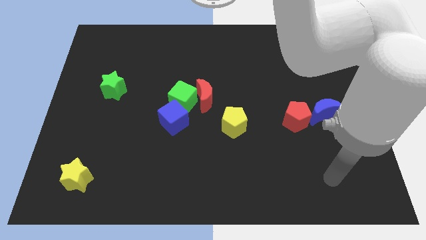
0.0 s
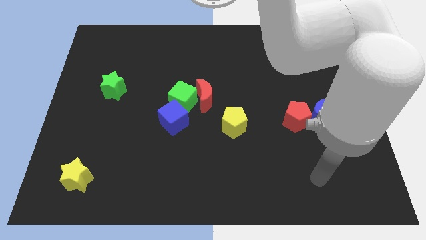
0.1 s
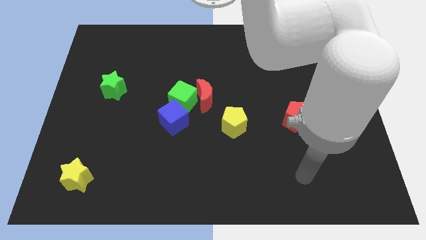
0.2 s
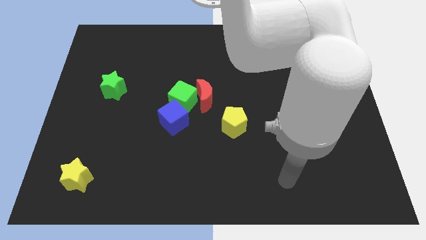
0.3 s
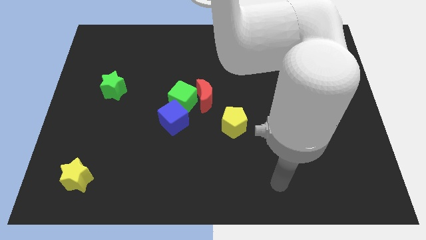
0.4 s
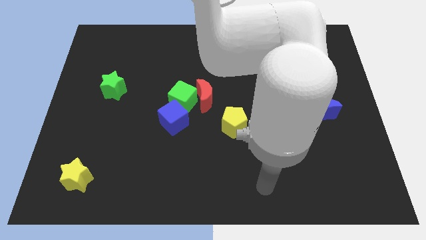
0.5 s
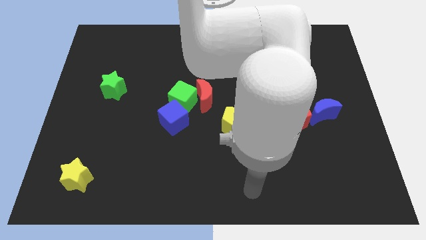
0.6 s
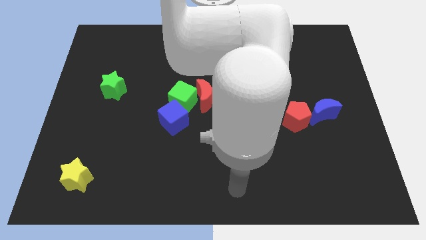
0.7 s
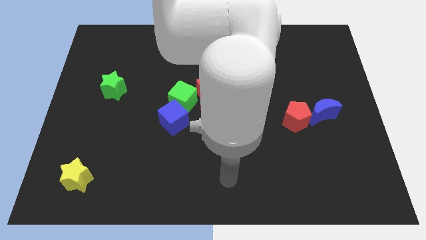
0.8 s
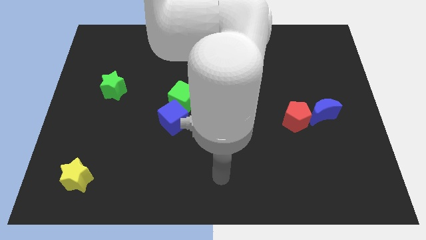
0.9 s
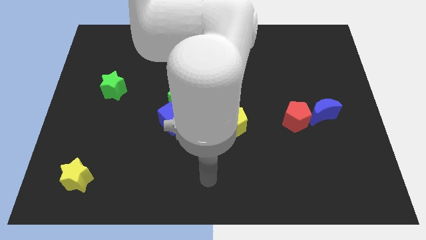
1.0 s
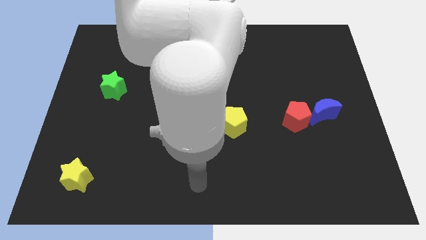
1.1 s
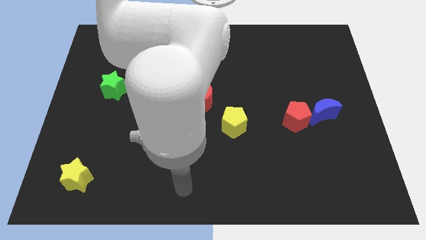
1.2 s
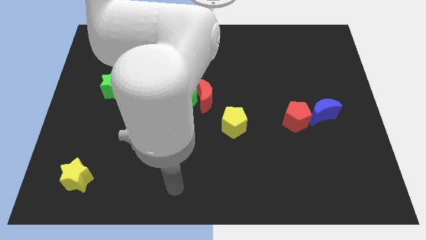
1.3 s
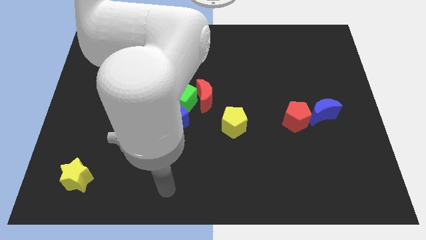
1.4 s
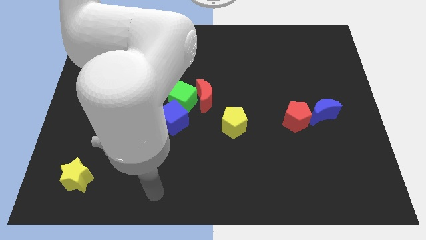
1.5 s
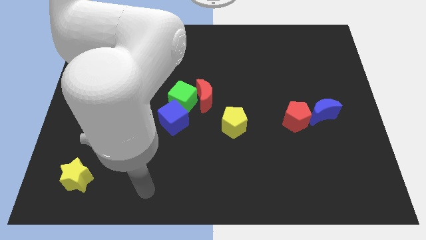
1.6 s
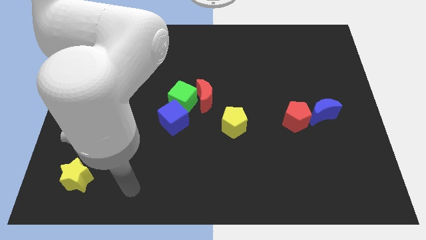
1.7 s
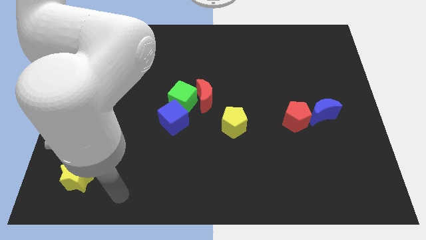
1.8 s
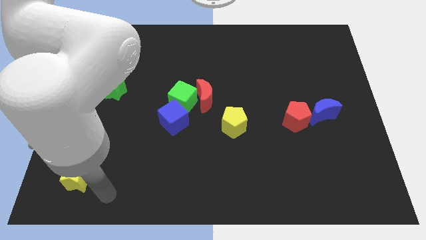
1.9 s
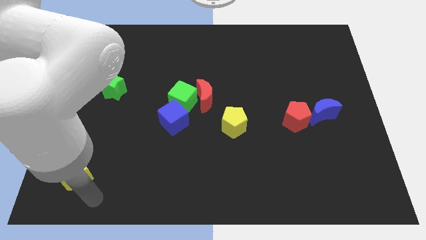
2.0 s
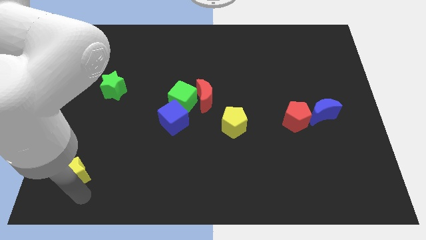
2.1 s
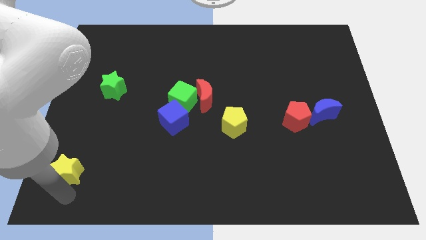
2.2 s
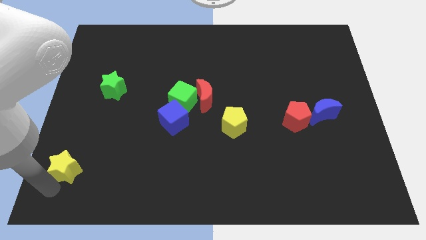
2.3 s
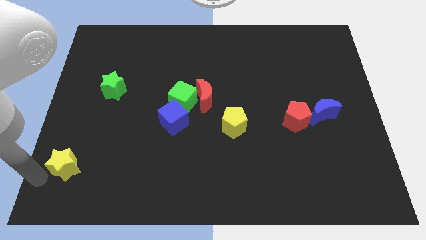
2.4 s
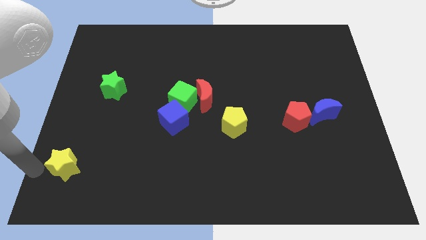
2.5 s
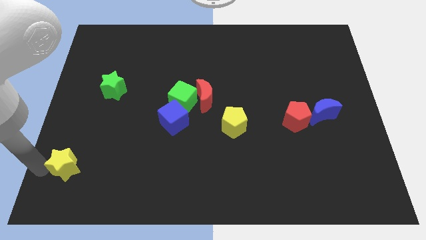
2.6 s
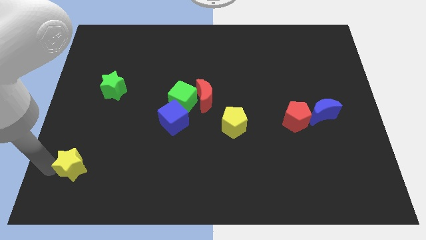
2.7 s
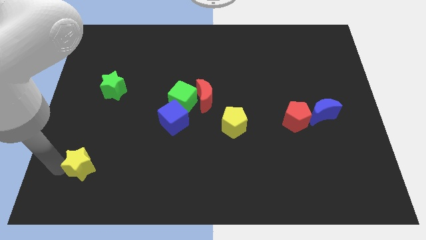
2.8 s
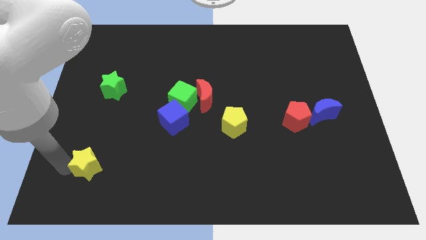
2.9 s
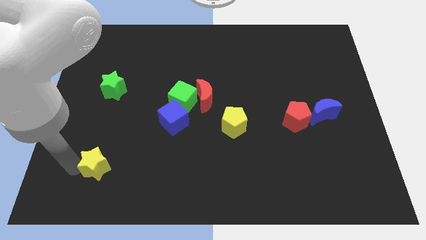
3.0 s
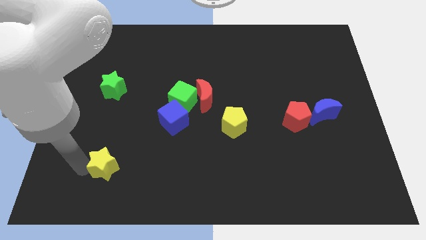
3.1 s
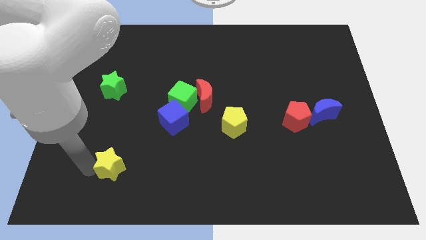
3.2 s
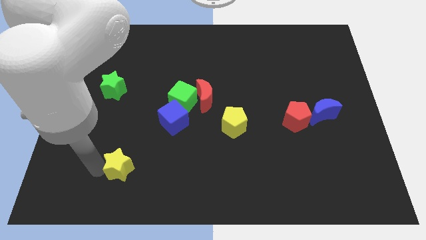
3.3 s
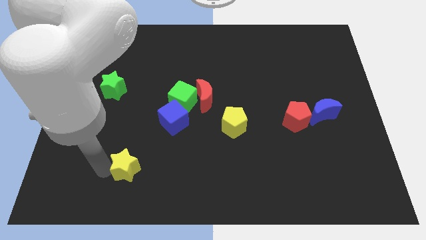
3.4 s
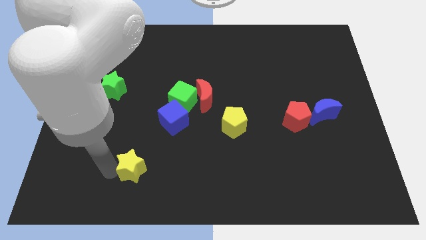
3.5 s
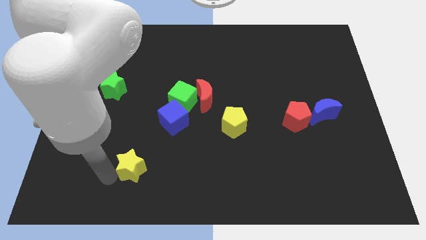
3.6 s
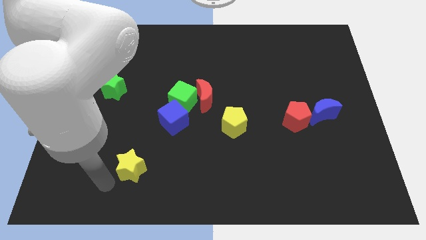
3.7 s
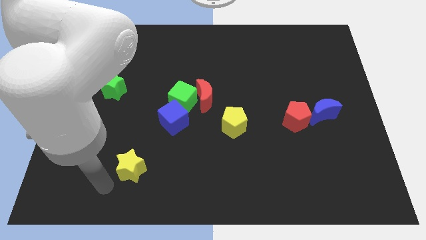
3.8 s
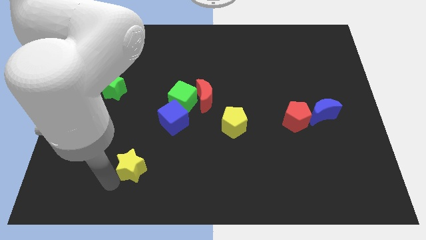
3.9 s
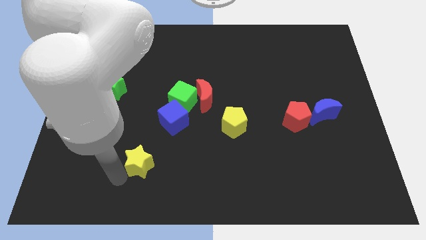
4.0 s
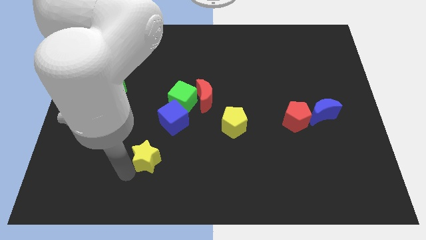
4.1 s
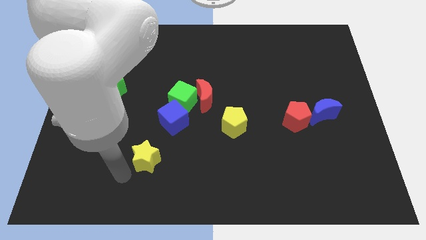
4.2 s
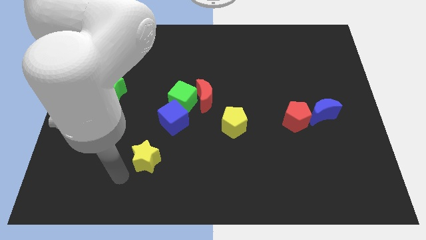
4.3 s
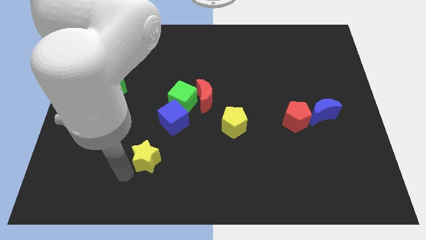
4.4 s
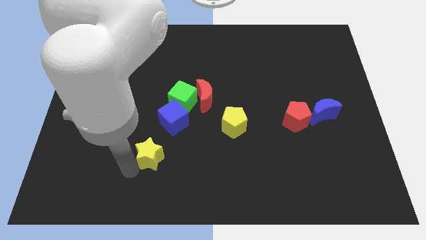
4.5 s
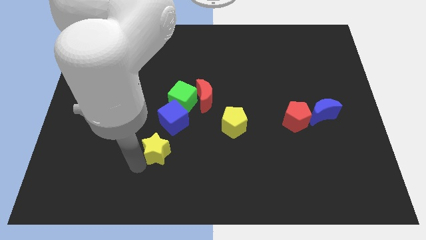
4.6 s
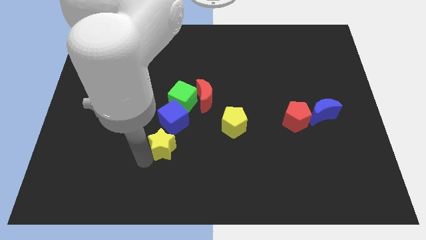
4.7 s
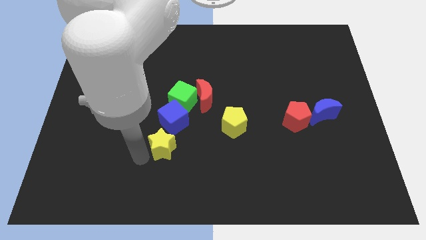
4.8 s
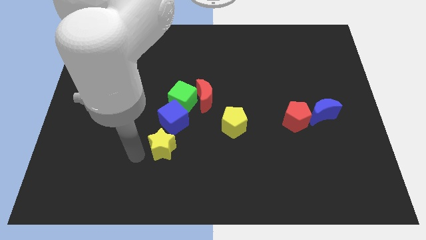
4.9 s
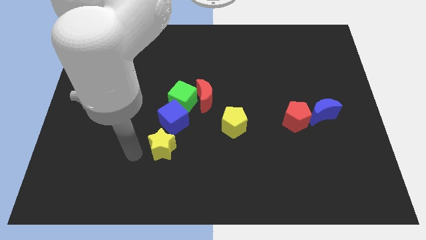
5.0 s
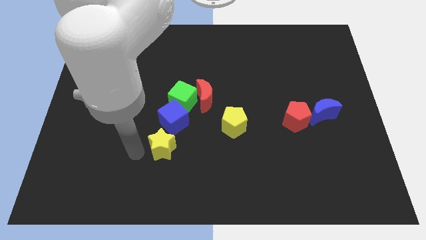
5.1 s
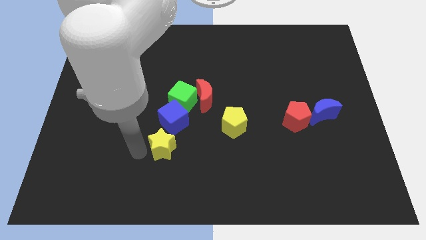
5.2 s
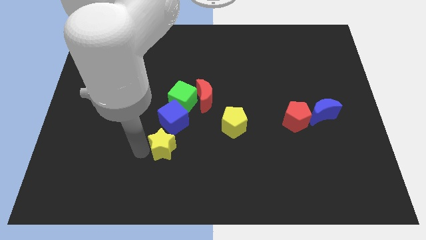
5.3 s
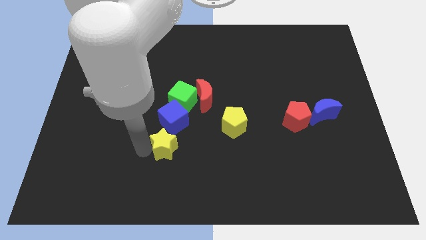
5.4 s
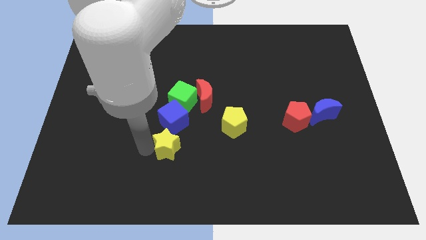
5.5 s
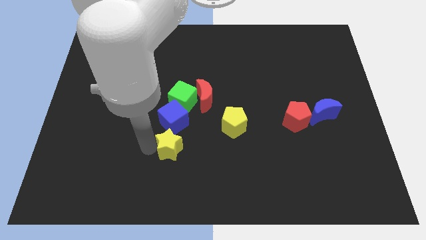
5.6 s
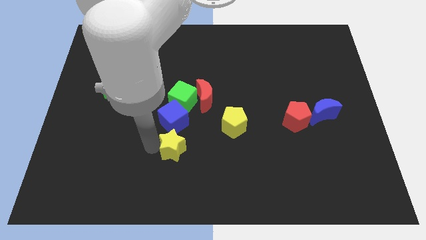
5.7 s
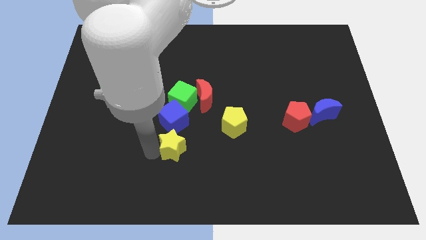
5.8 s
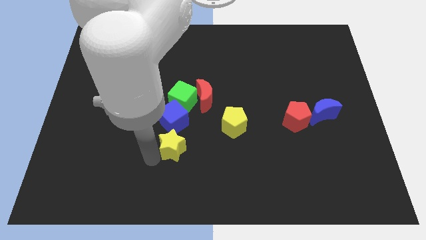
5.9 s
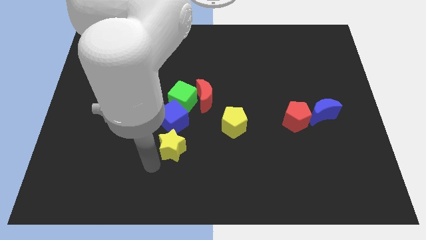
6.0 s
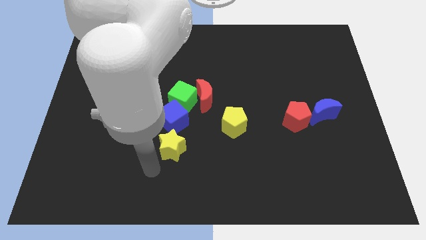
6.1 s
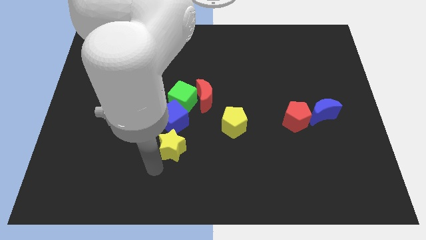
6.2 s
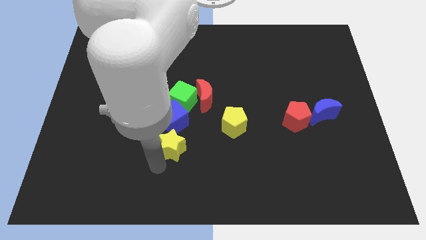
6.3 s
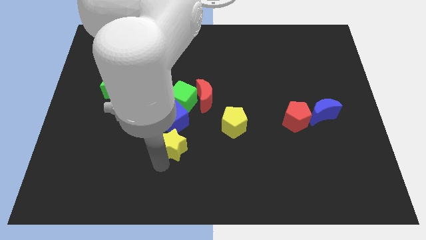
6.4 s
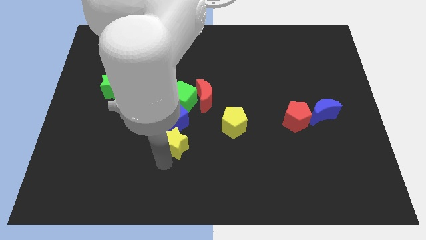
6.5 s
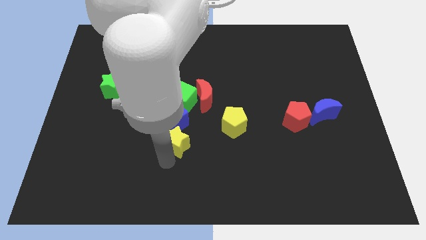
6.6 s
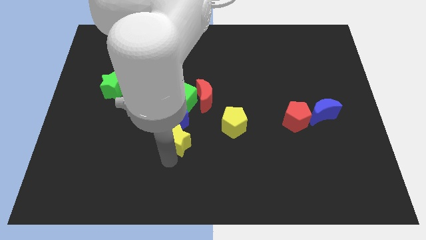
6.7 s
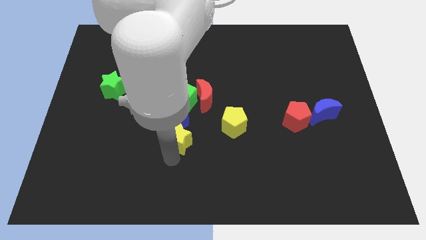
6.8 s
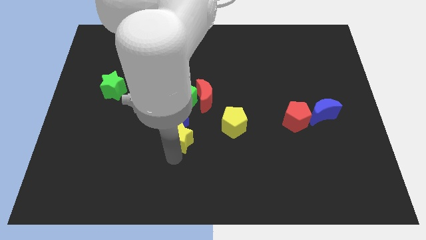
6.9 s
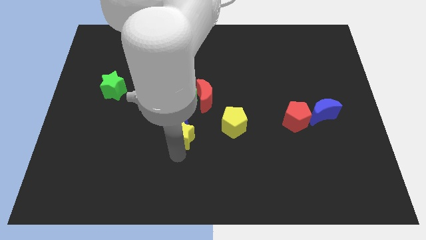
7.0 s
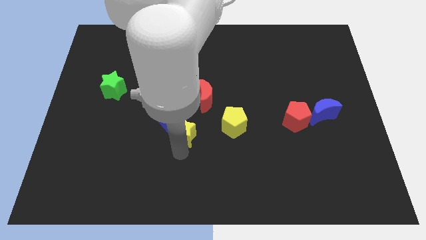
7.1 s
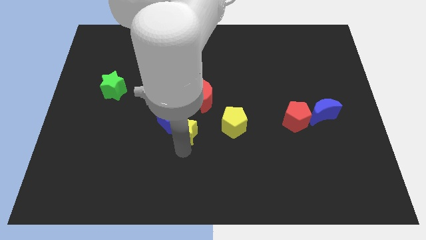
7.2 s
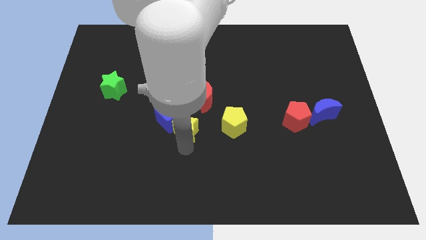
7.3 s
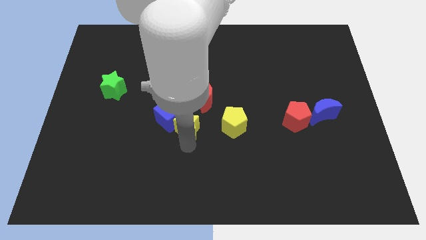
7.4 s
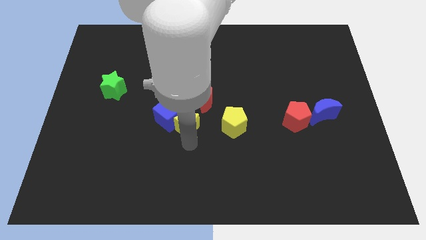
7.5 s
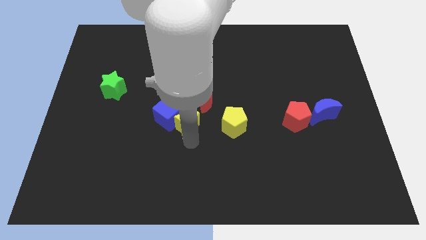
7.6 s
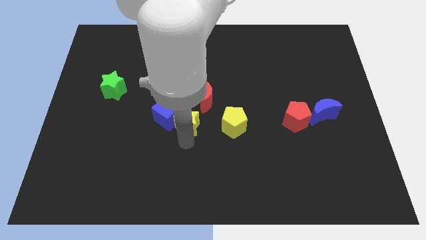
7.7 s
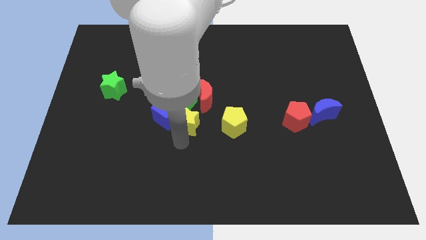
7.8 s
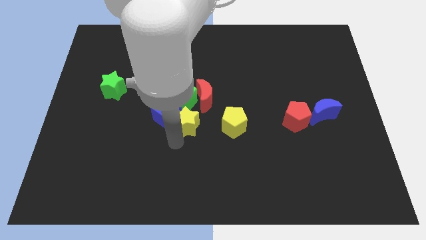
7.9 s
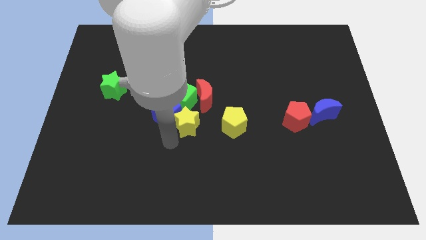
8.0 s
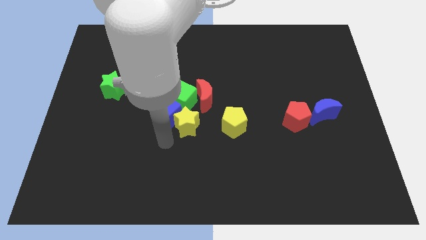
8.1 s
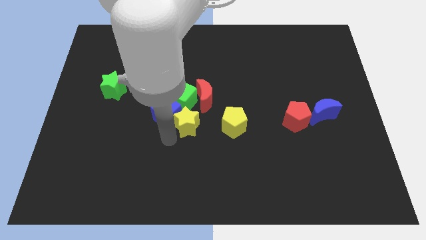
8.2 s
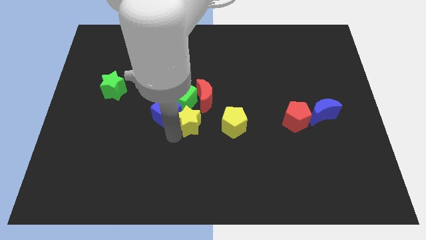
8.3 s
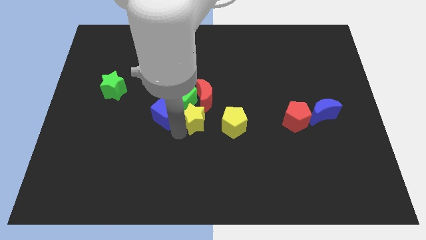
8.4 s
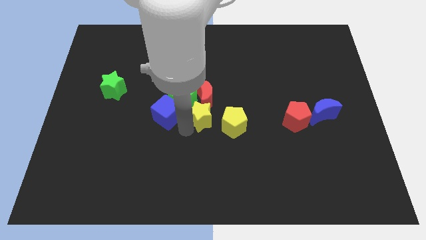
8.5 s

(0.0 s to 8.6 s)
slide the yellow star to the red moon
